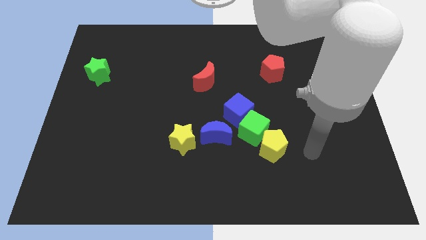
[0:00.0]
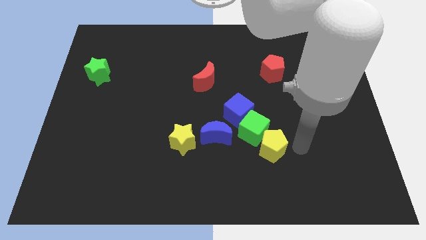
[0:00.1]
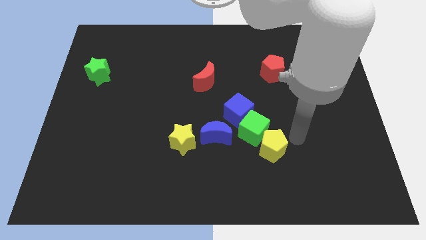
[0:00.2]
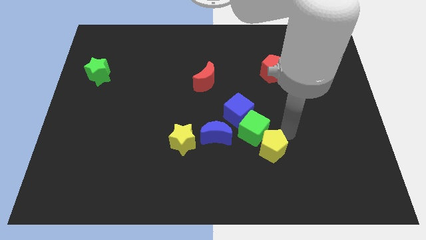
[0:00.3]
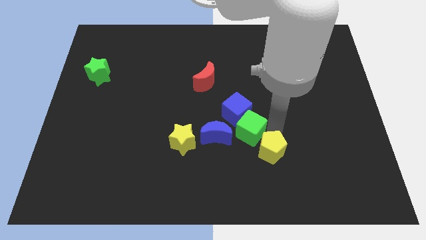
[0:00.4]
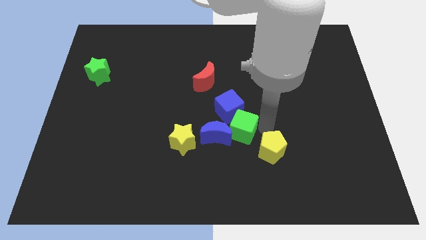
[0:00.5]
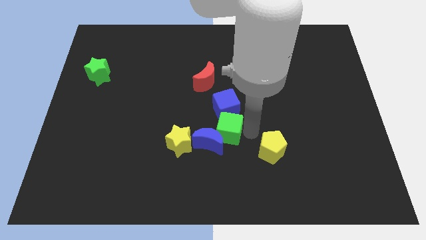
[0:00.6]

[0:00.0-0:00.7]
pull the yellow pentagon apart from the green cube

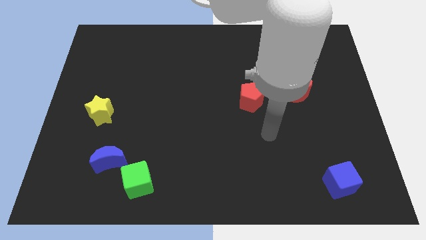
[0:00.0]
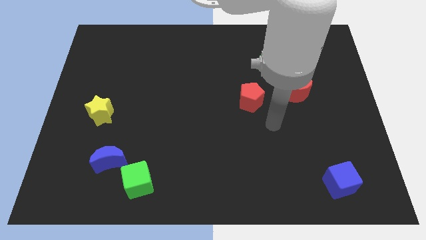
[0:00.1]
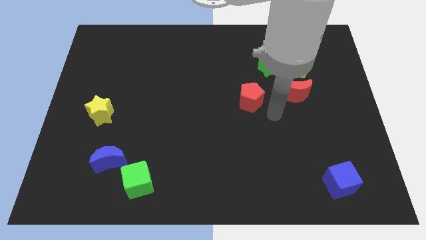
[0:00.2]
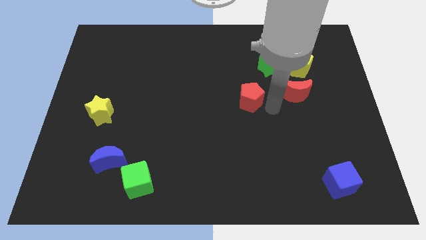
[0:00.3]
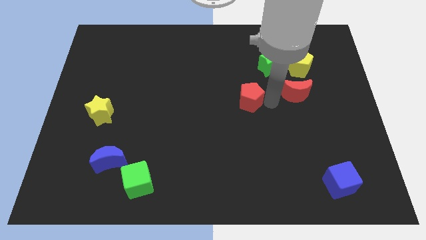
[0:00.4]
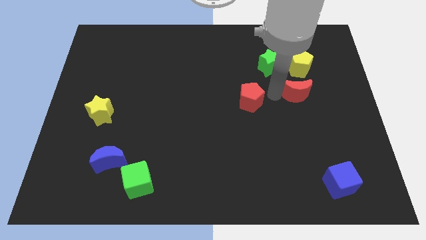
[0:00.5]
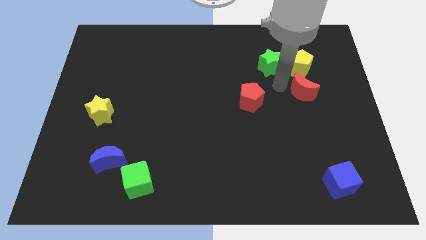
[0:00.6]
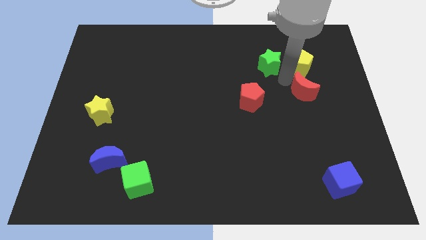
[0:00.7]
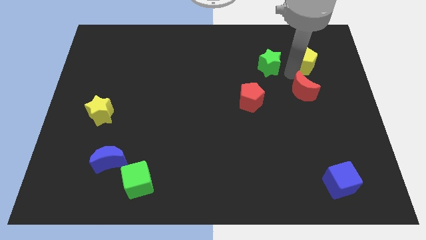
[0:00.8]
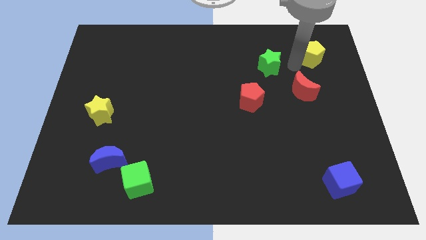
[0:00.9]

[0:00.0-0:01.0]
separate the green star from the yellow pentagon

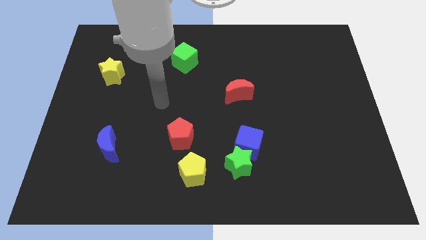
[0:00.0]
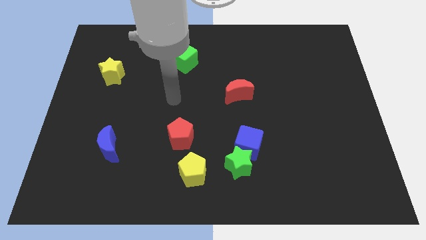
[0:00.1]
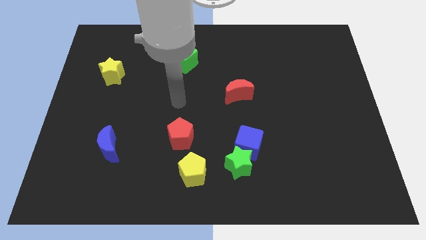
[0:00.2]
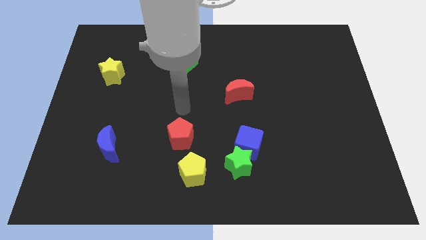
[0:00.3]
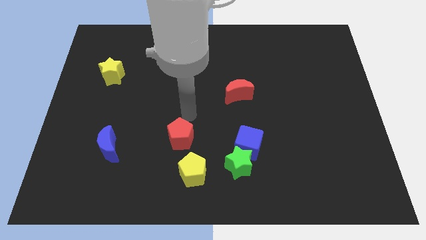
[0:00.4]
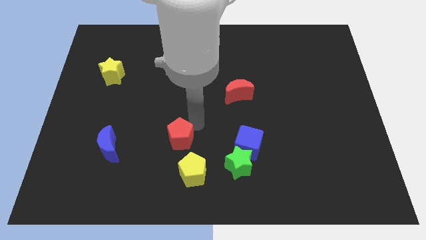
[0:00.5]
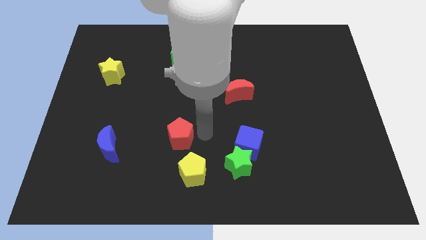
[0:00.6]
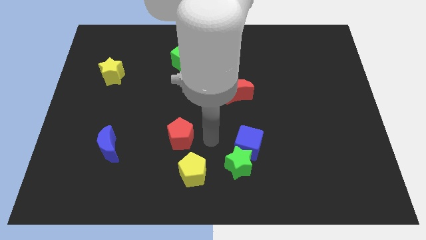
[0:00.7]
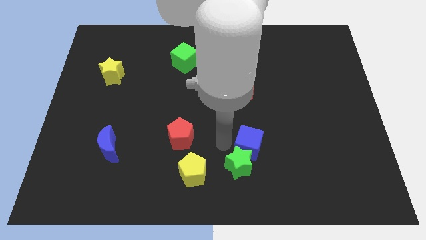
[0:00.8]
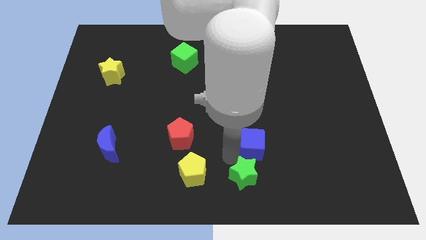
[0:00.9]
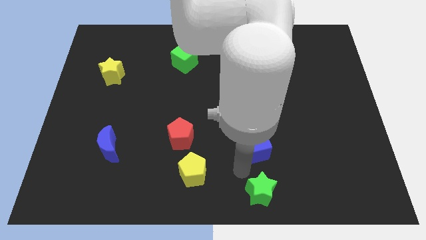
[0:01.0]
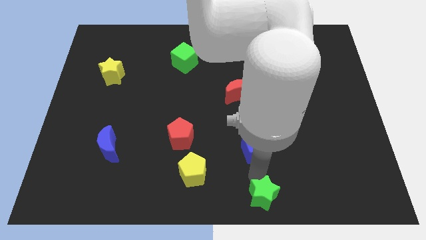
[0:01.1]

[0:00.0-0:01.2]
move the blue cube away from the green star

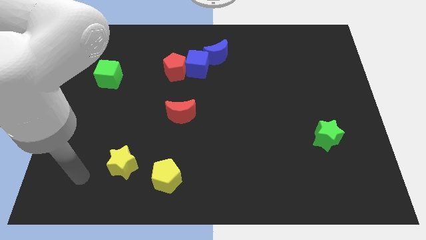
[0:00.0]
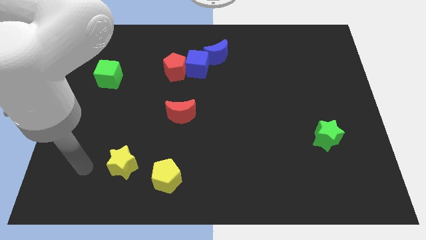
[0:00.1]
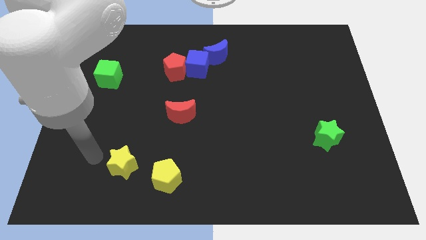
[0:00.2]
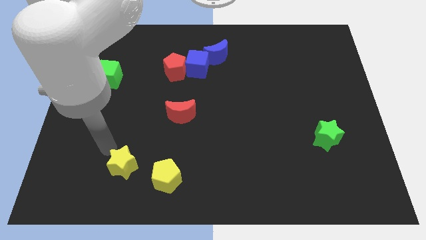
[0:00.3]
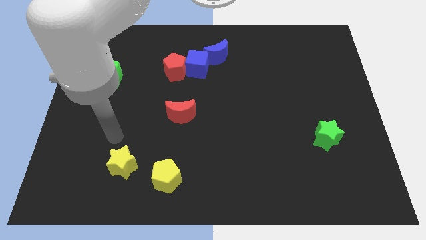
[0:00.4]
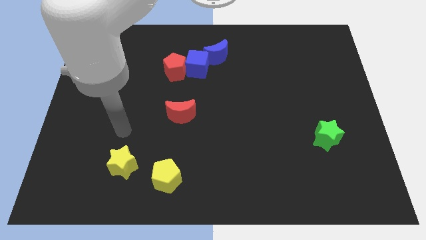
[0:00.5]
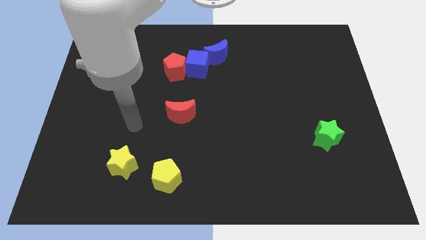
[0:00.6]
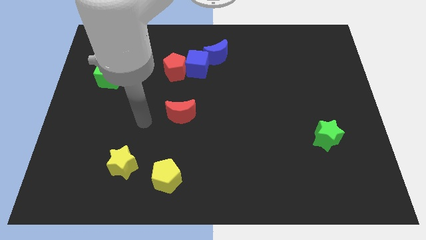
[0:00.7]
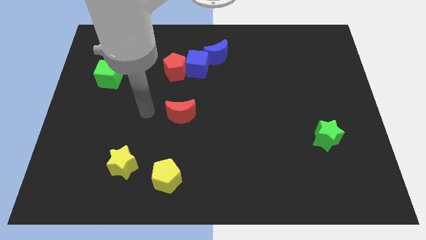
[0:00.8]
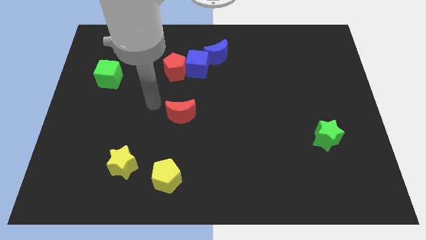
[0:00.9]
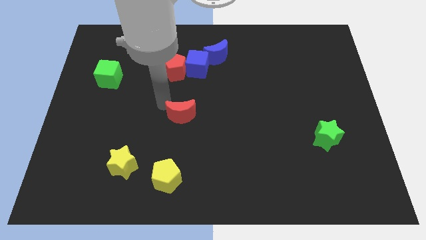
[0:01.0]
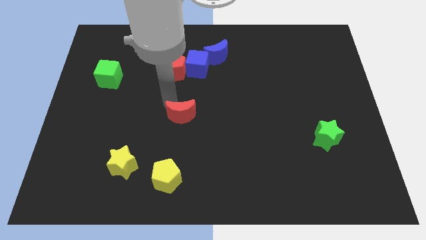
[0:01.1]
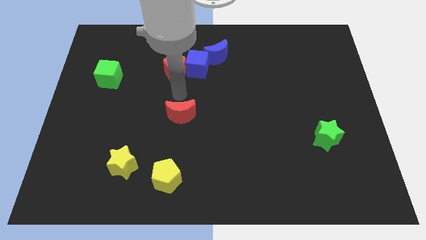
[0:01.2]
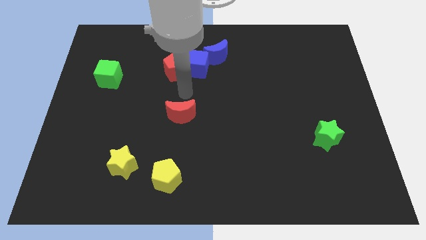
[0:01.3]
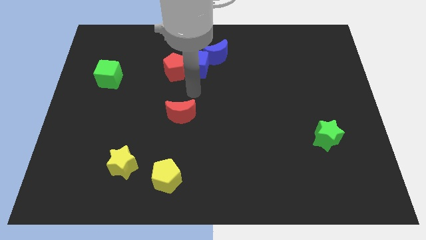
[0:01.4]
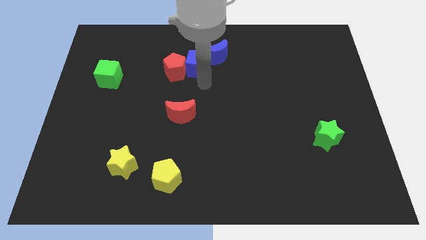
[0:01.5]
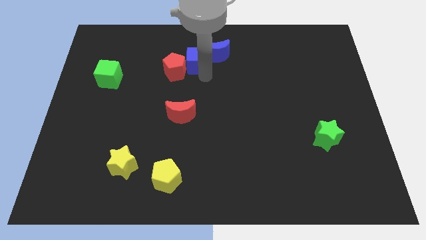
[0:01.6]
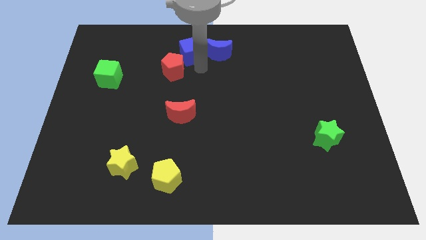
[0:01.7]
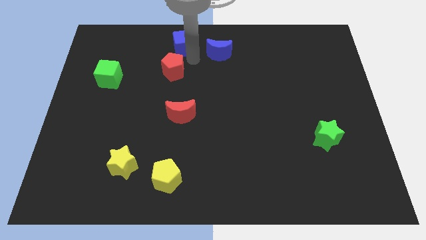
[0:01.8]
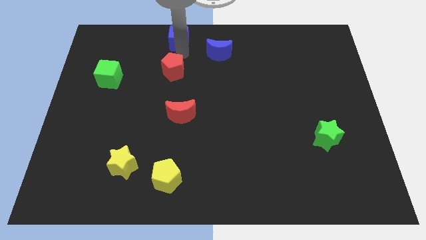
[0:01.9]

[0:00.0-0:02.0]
pull the red pentagon apart from the blue cube

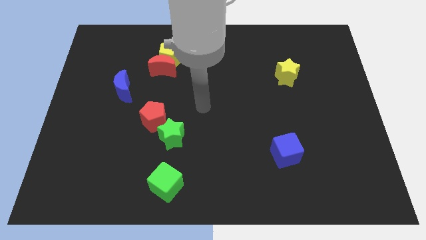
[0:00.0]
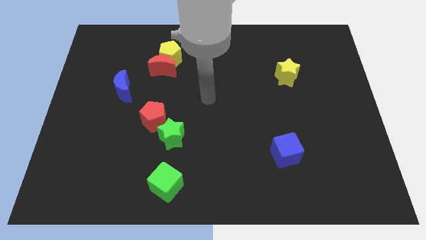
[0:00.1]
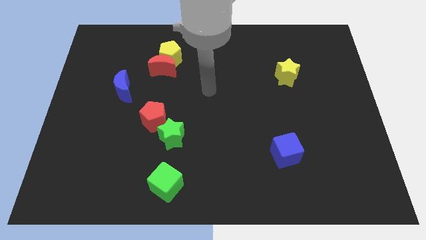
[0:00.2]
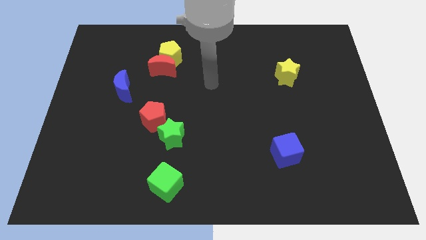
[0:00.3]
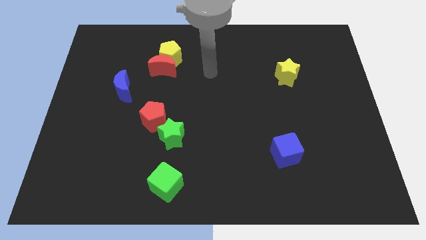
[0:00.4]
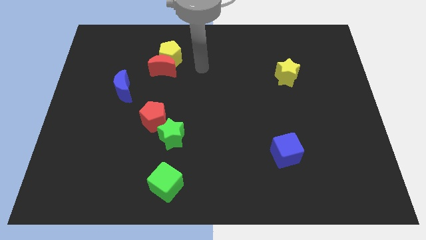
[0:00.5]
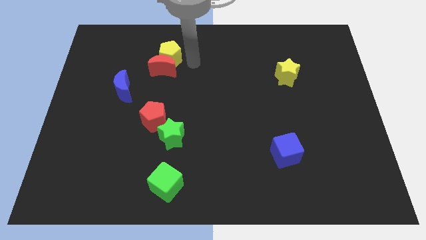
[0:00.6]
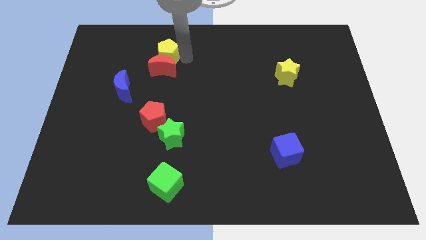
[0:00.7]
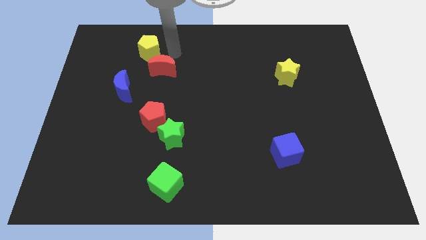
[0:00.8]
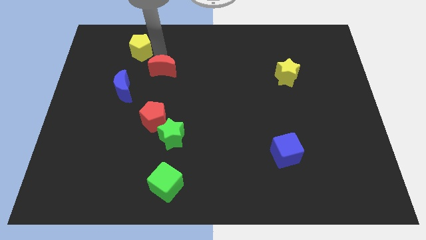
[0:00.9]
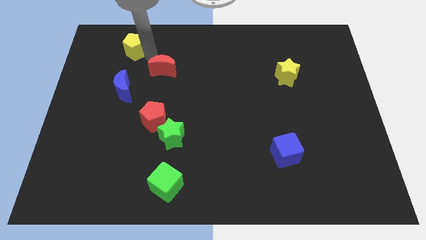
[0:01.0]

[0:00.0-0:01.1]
move the red moon away from the yellow pentagon

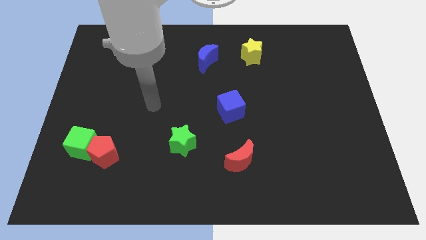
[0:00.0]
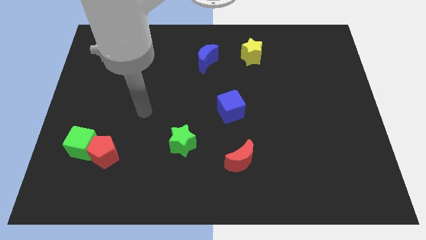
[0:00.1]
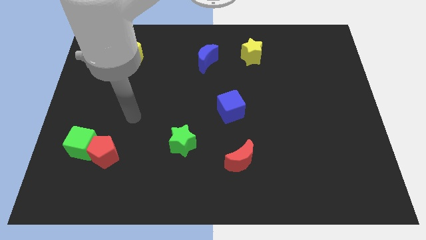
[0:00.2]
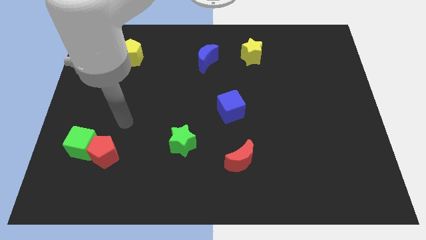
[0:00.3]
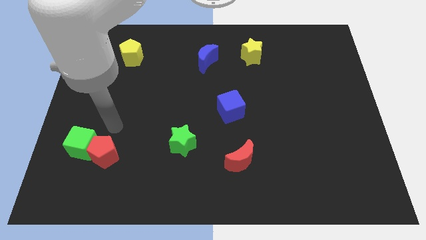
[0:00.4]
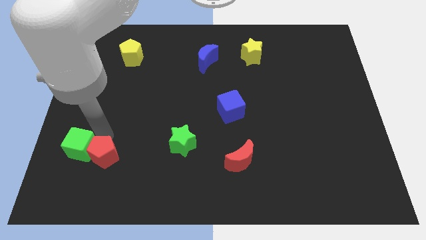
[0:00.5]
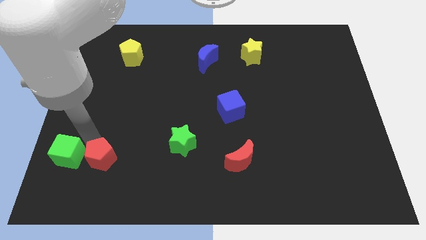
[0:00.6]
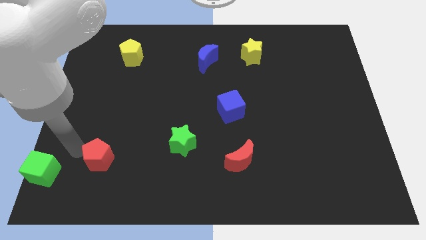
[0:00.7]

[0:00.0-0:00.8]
separate the red pentagon from the green cube

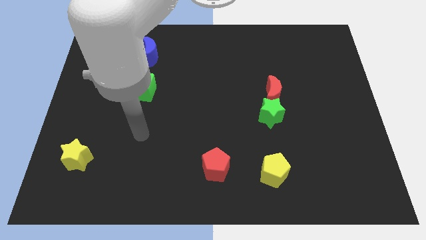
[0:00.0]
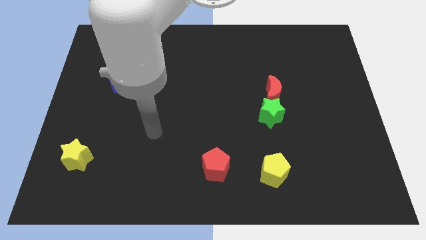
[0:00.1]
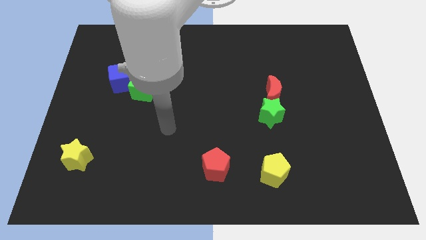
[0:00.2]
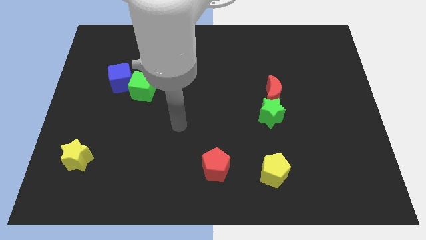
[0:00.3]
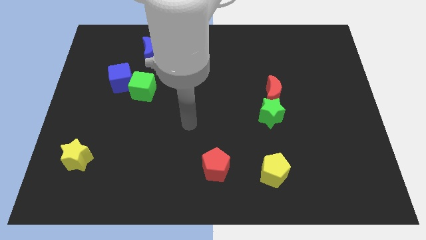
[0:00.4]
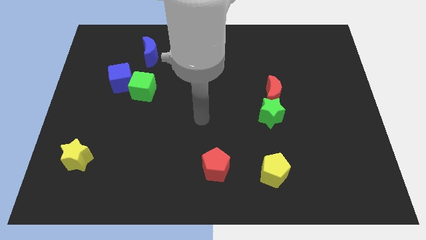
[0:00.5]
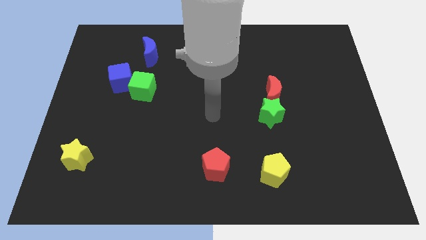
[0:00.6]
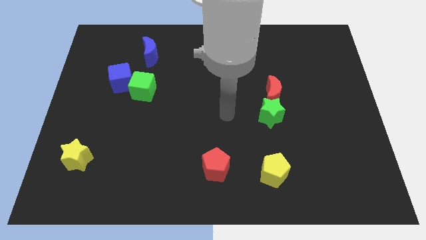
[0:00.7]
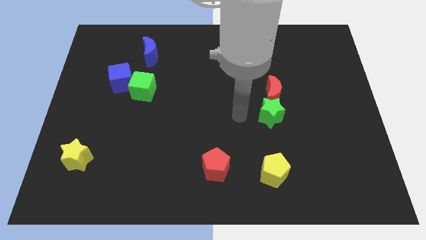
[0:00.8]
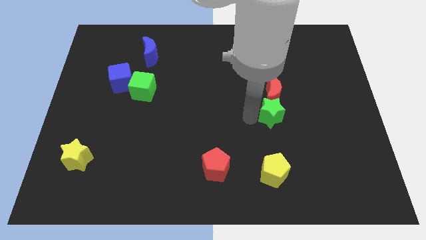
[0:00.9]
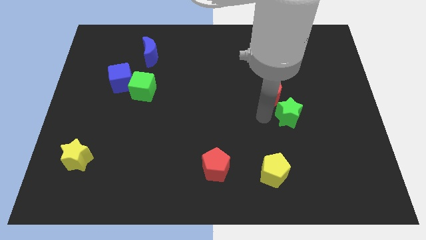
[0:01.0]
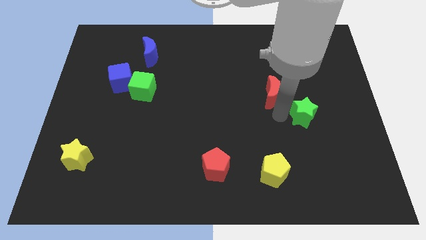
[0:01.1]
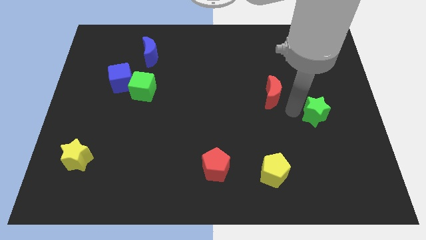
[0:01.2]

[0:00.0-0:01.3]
pull the red moon apart from the green star

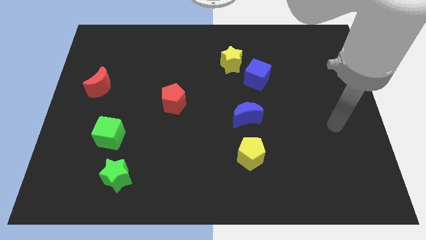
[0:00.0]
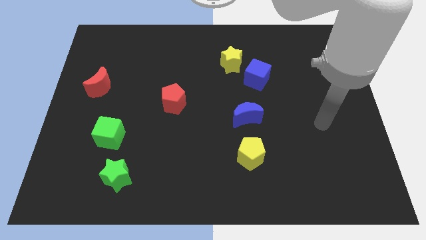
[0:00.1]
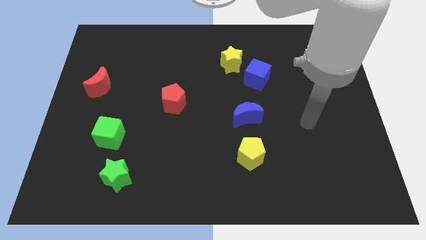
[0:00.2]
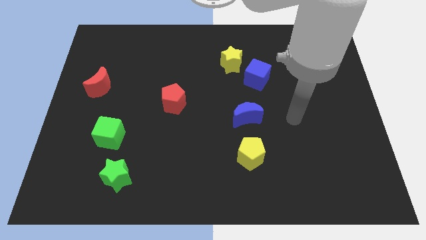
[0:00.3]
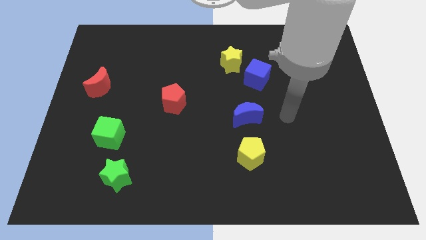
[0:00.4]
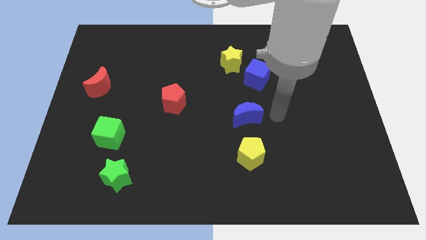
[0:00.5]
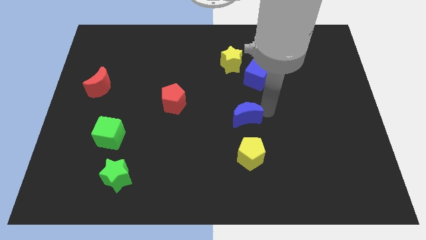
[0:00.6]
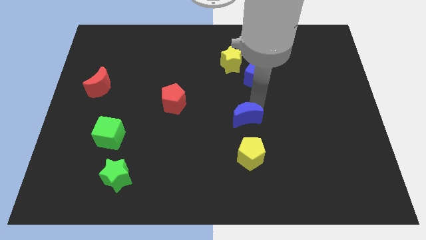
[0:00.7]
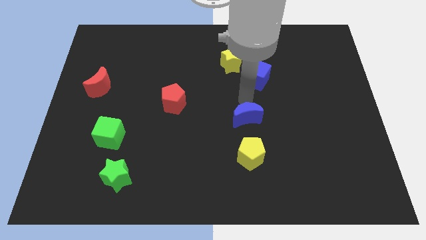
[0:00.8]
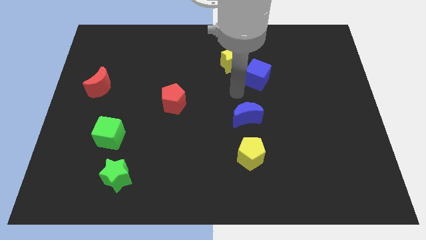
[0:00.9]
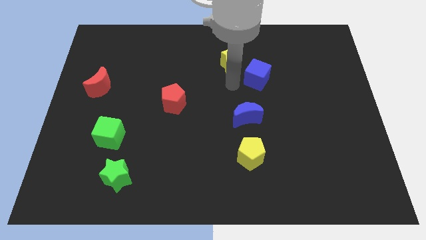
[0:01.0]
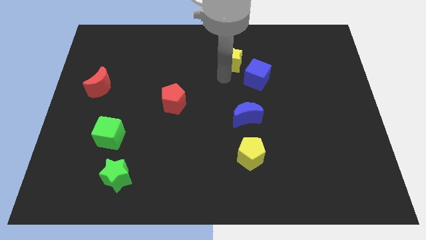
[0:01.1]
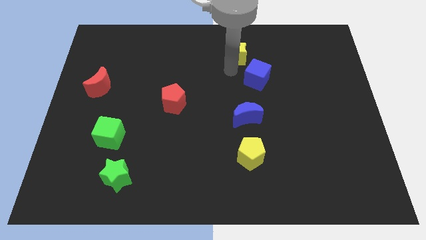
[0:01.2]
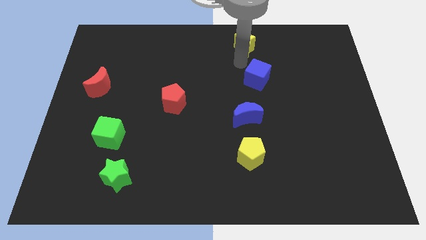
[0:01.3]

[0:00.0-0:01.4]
pull the blue cube apart from the yellow star
